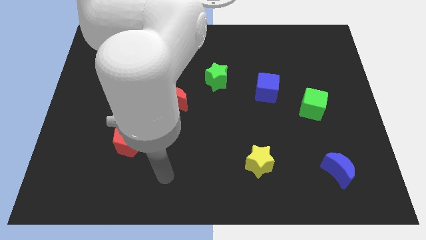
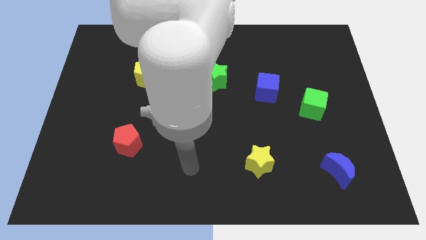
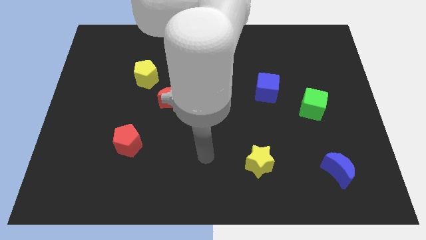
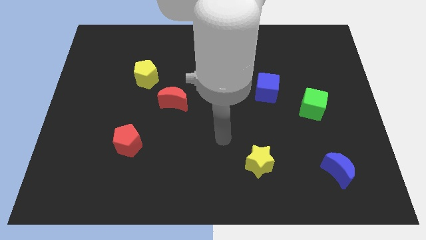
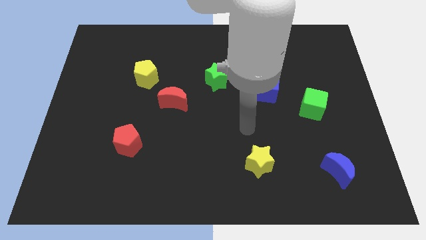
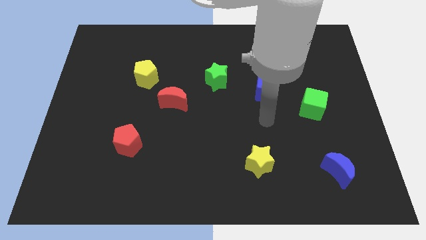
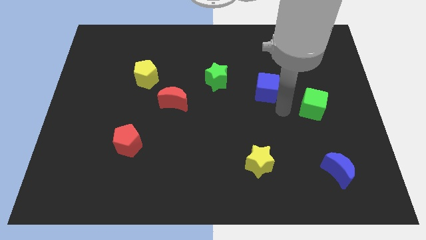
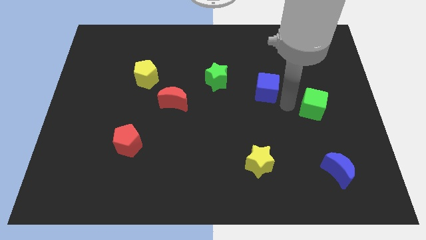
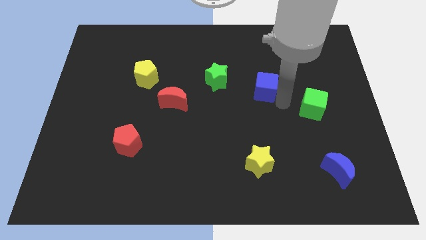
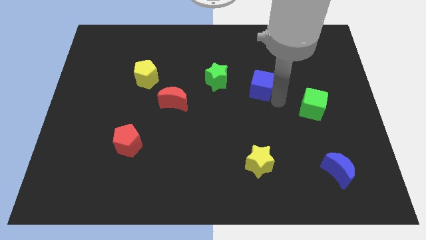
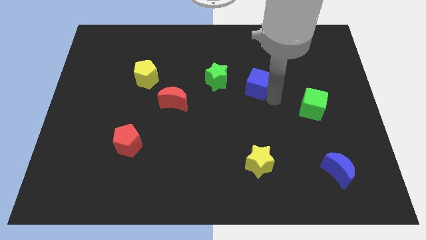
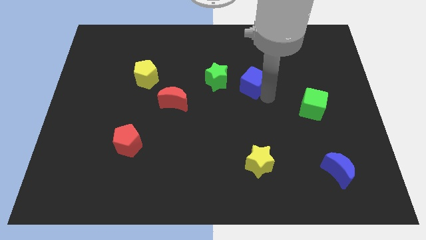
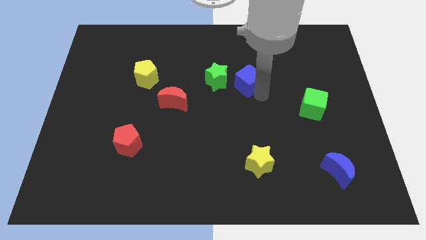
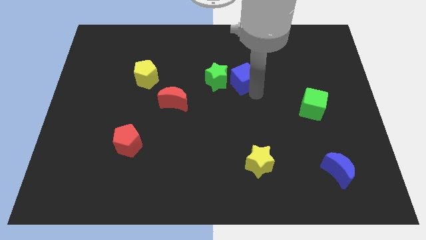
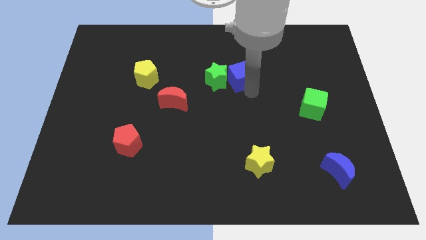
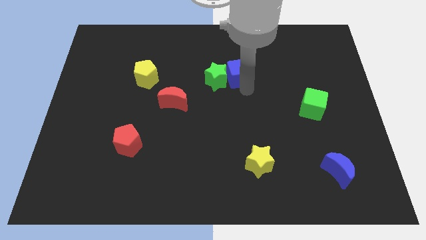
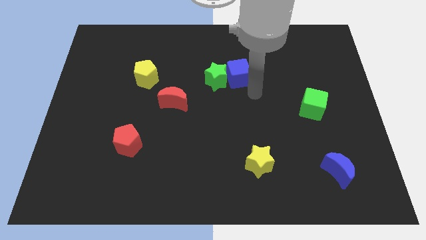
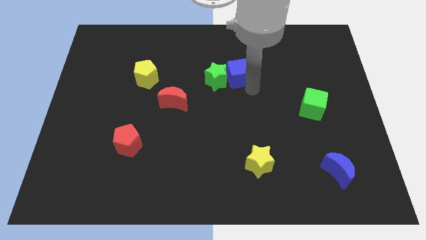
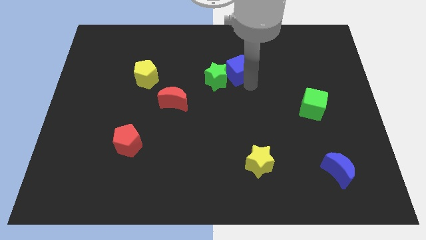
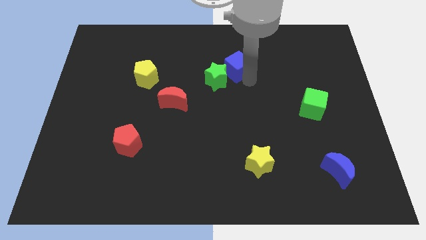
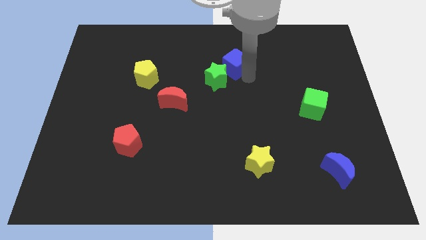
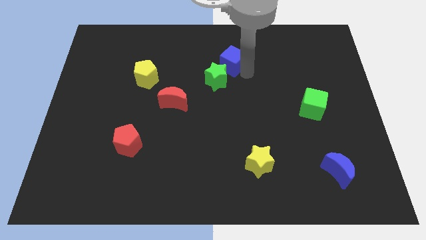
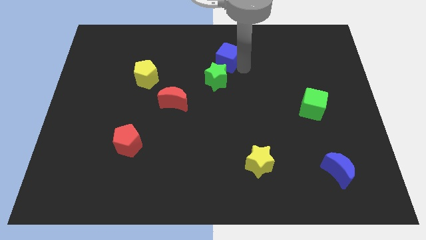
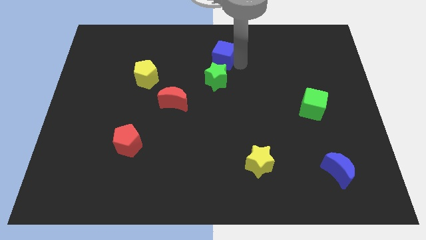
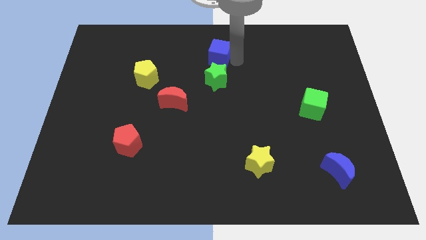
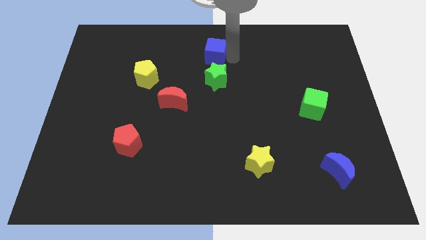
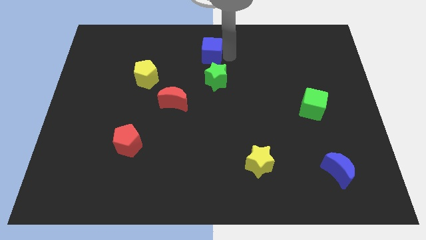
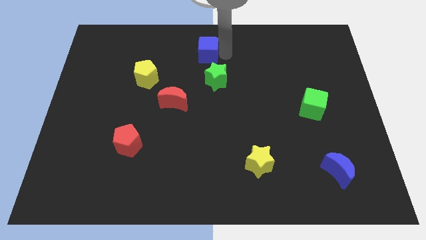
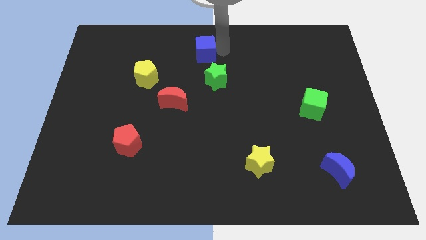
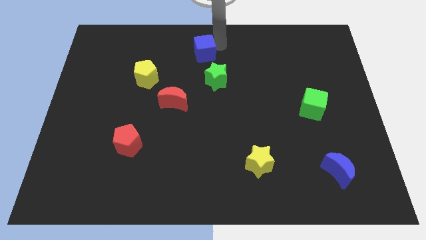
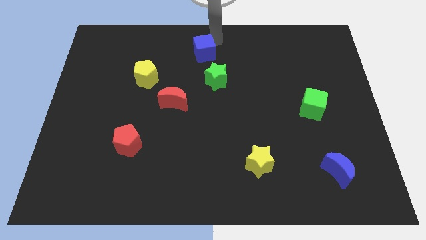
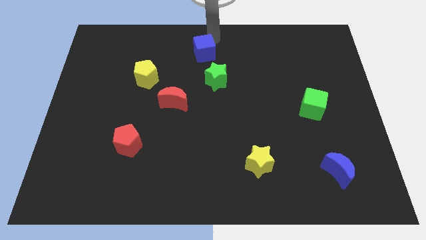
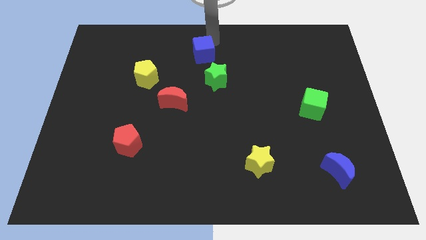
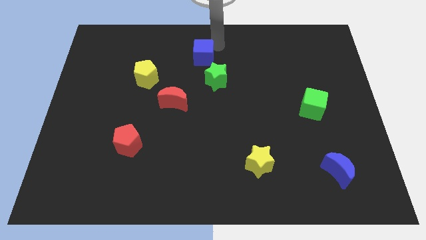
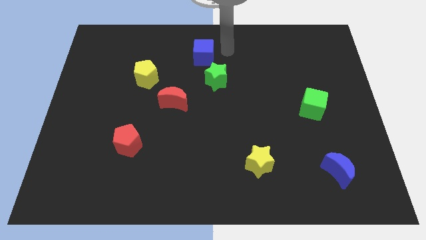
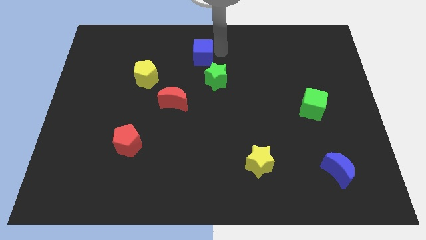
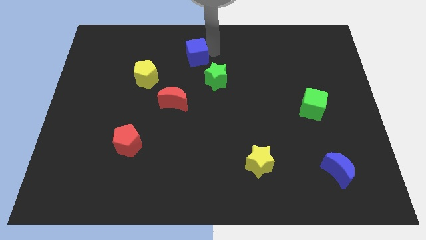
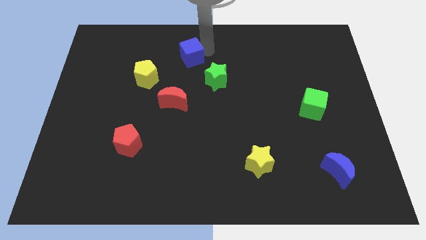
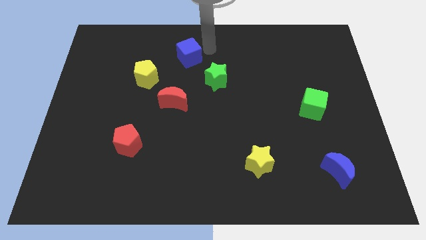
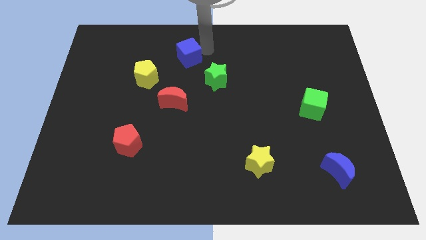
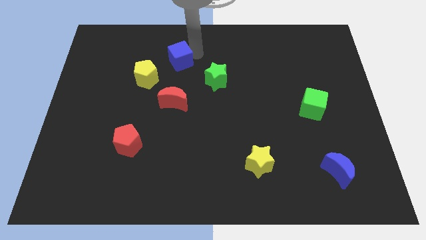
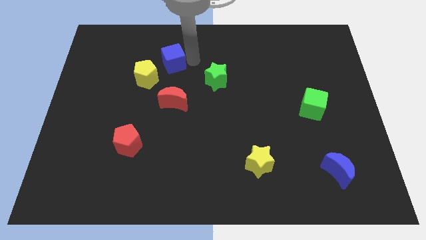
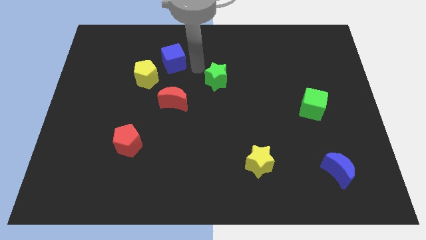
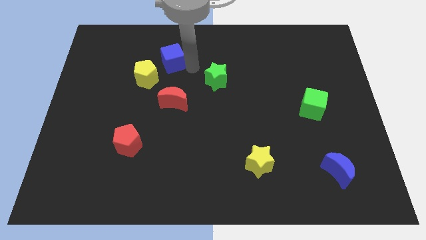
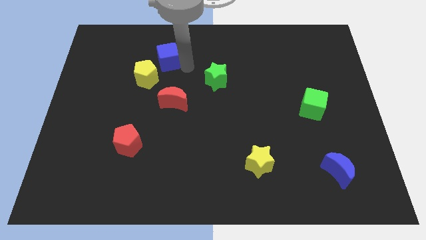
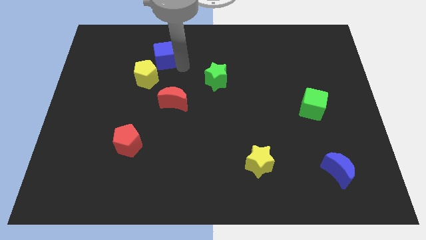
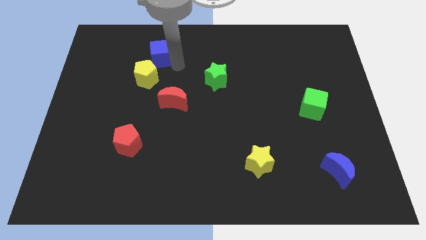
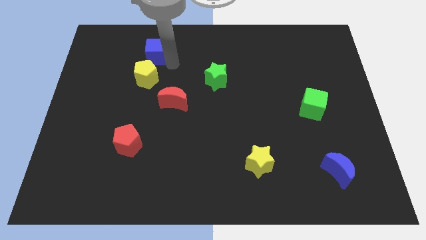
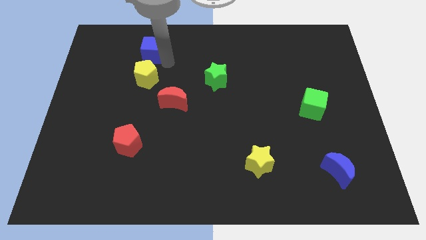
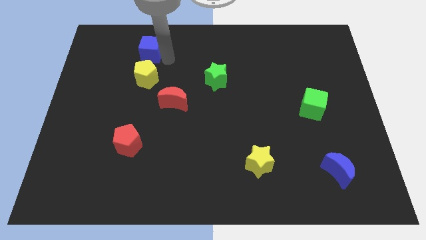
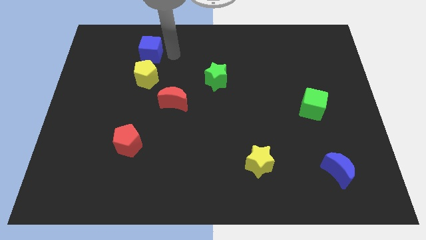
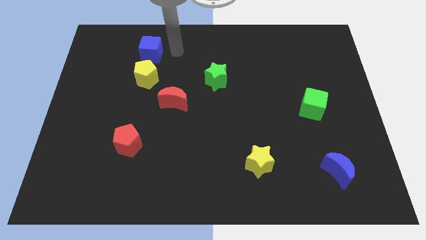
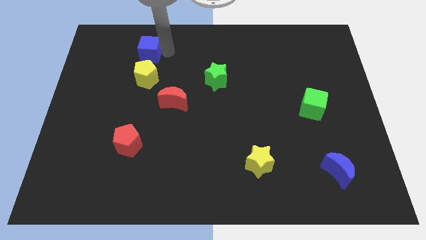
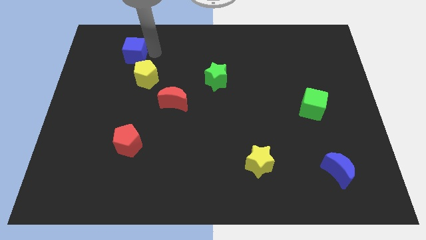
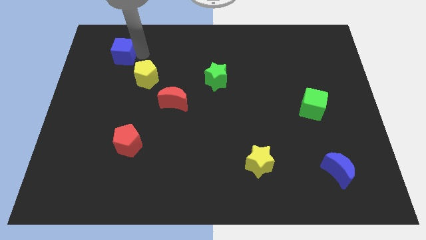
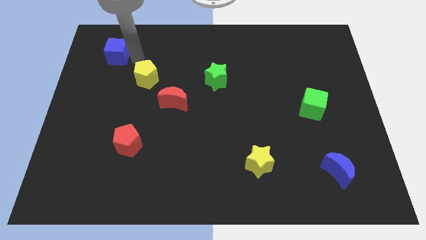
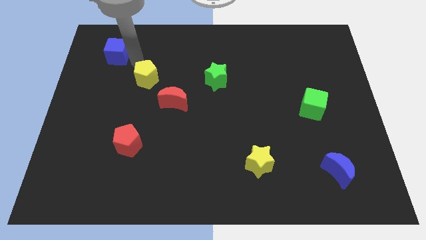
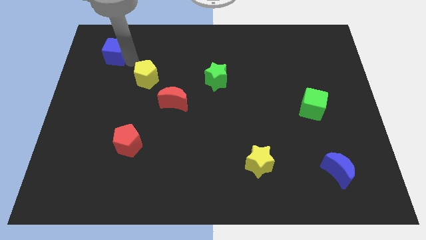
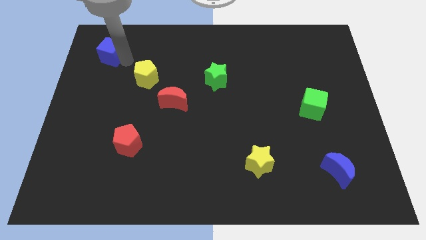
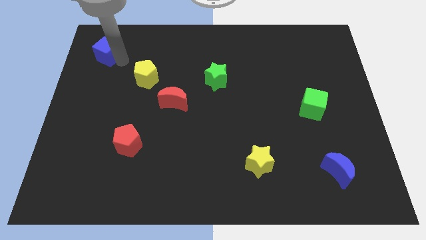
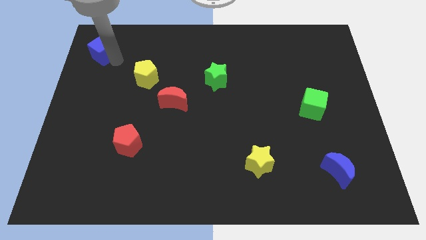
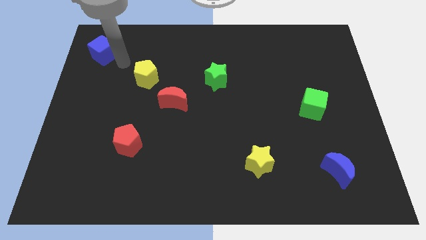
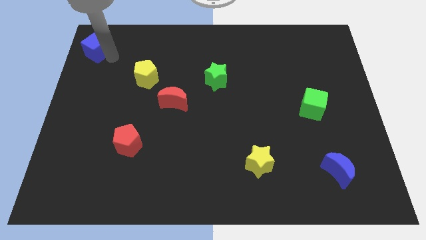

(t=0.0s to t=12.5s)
move the blue cube to the top left
